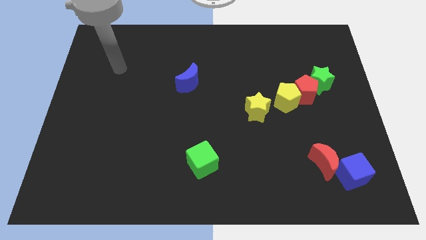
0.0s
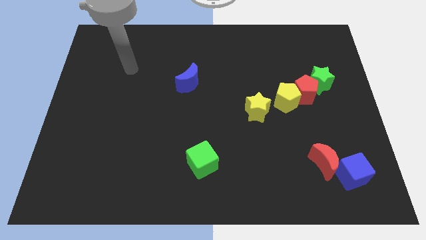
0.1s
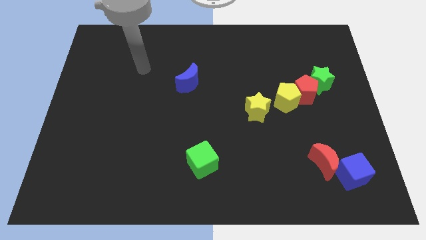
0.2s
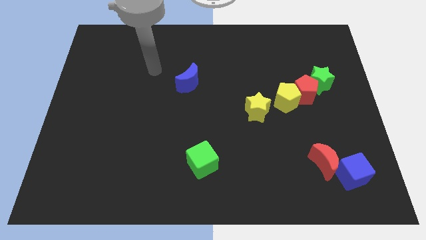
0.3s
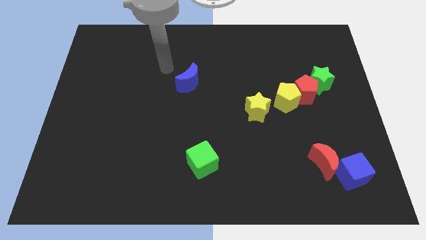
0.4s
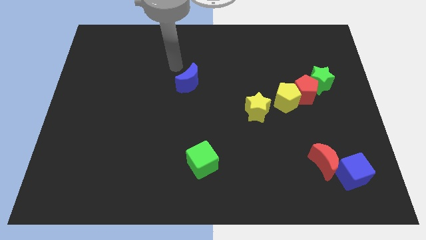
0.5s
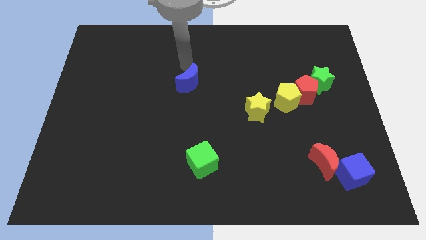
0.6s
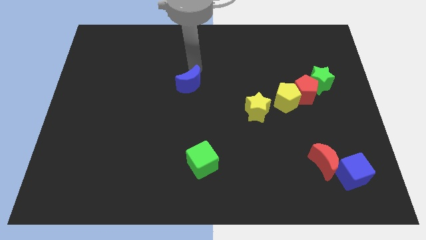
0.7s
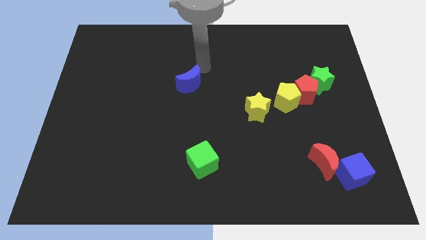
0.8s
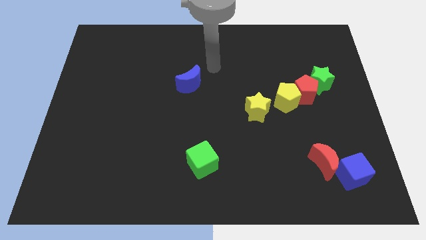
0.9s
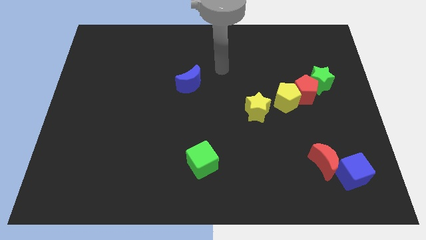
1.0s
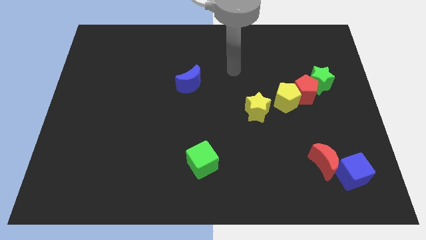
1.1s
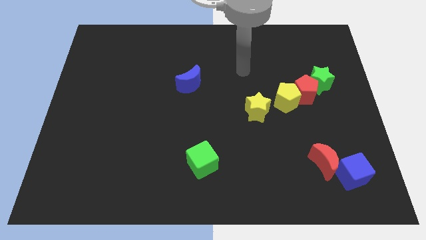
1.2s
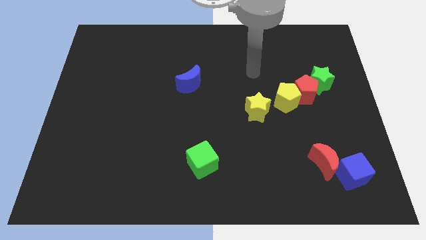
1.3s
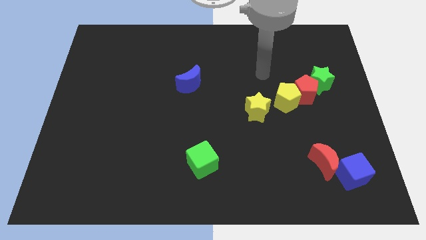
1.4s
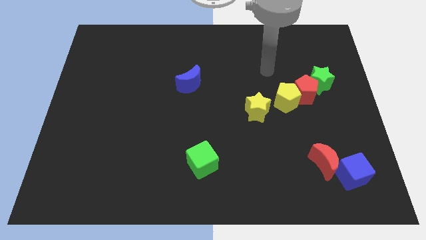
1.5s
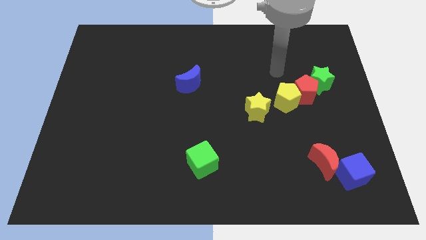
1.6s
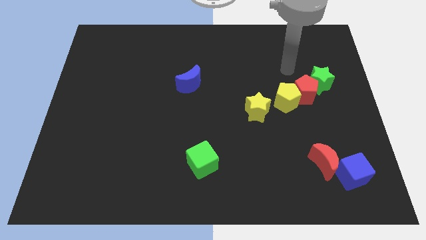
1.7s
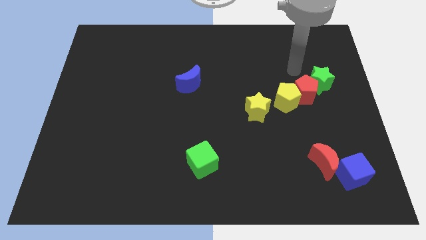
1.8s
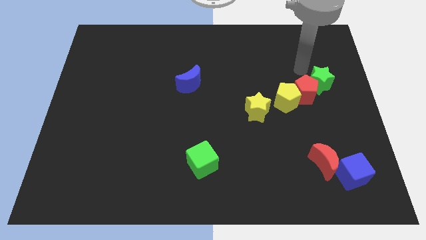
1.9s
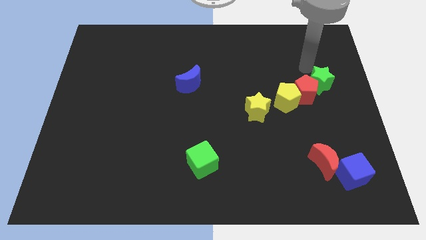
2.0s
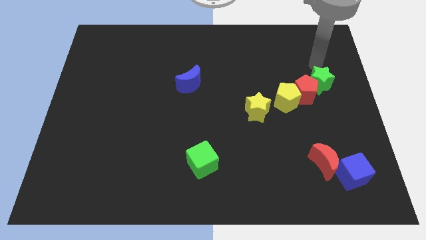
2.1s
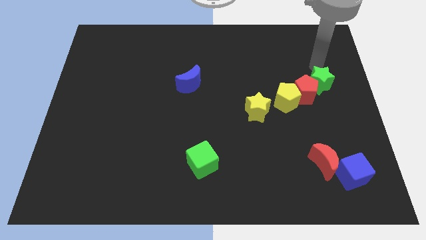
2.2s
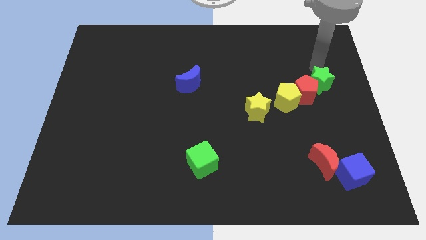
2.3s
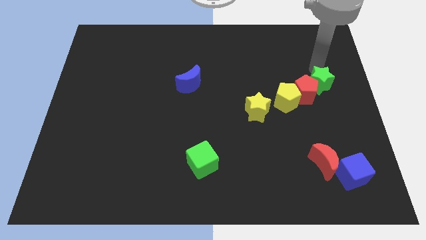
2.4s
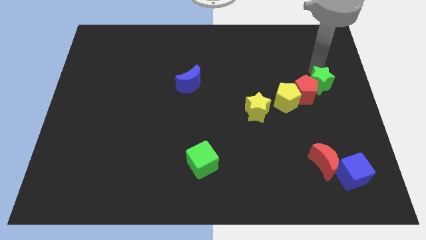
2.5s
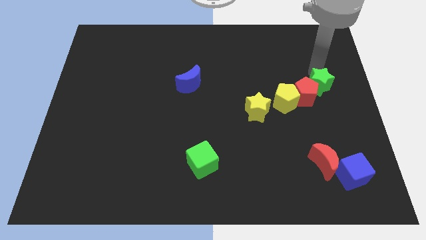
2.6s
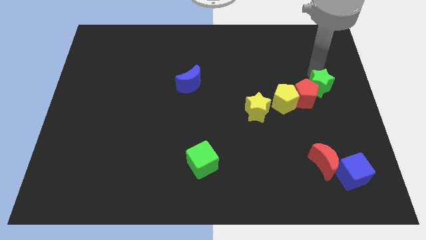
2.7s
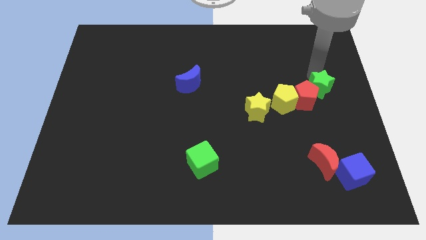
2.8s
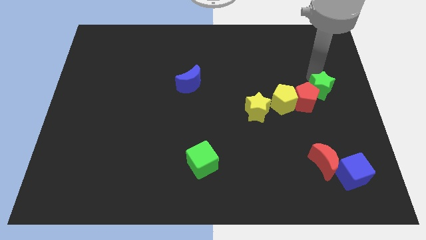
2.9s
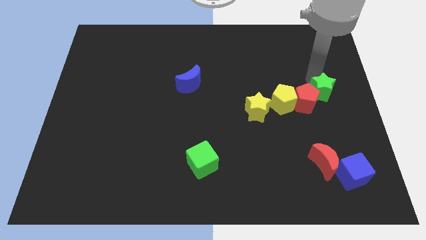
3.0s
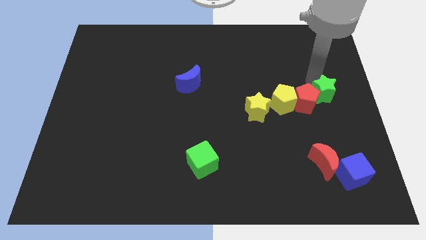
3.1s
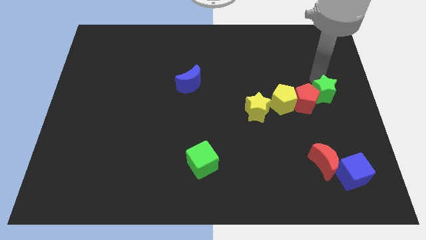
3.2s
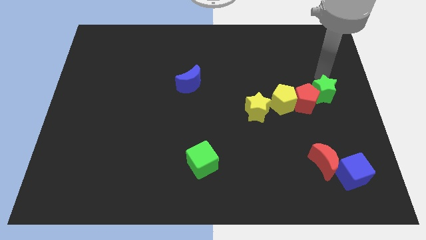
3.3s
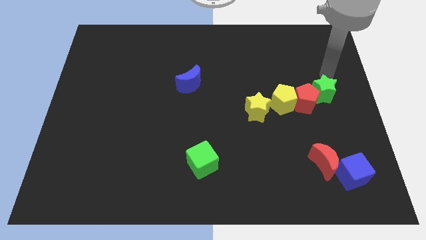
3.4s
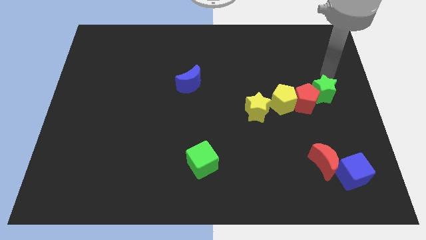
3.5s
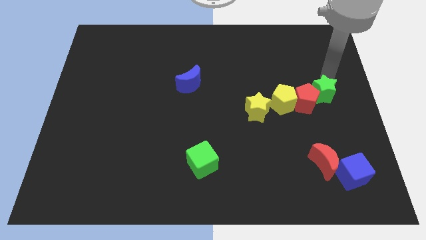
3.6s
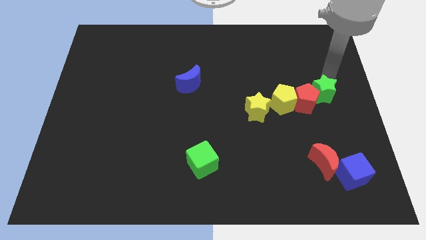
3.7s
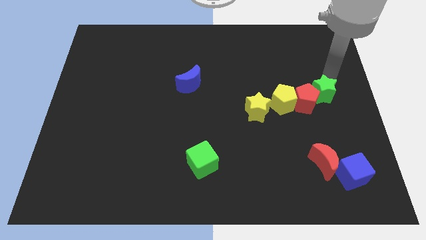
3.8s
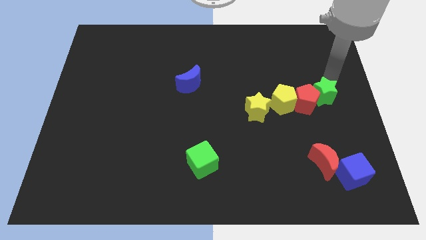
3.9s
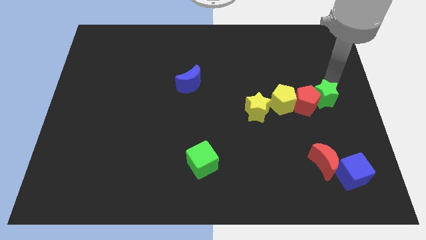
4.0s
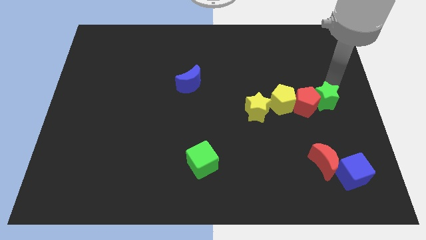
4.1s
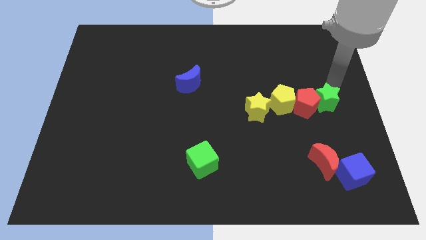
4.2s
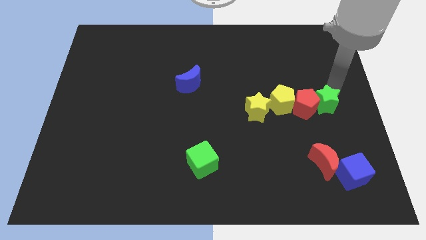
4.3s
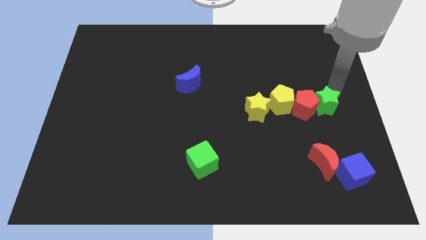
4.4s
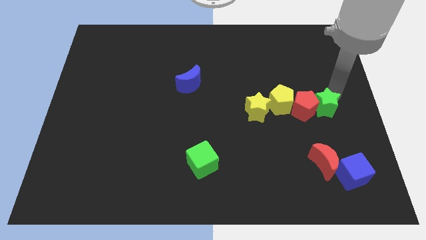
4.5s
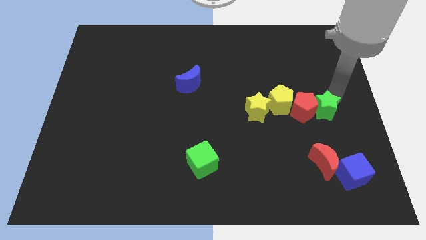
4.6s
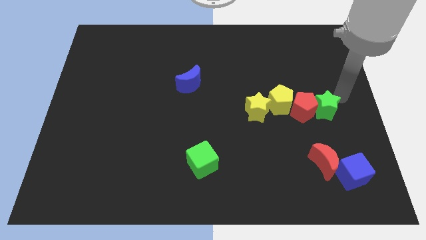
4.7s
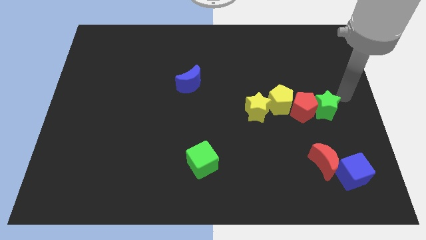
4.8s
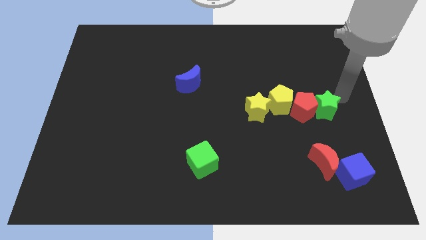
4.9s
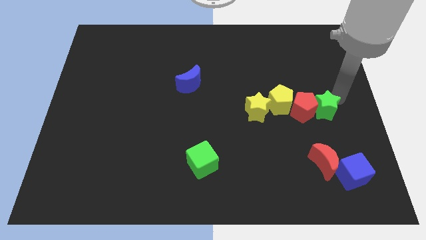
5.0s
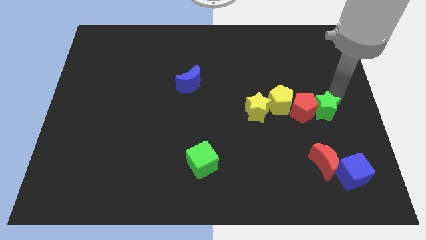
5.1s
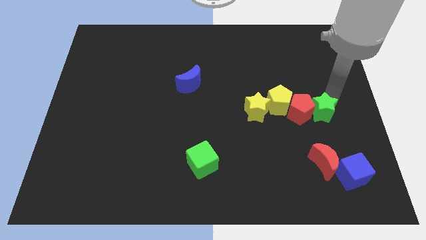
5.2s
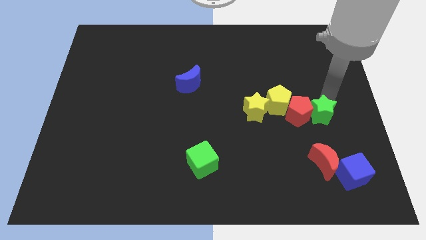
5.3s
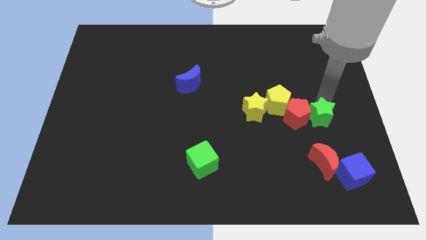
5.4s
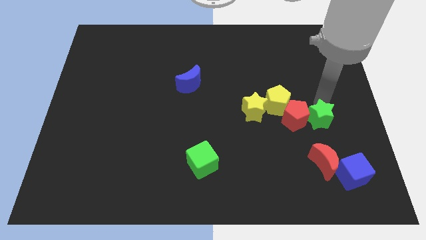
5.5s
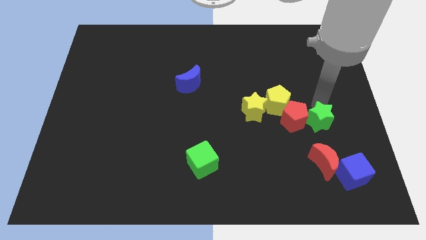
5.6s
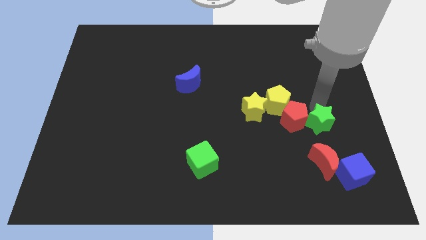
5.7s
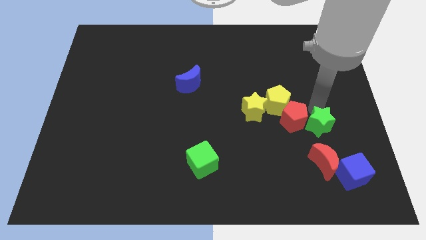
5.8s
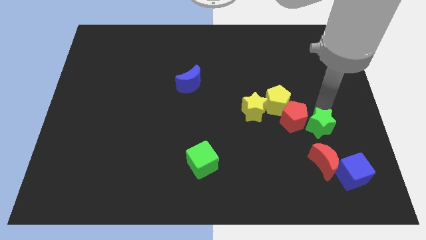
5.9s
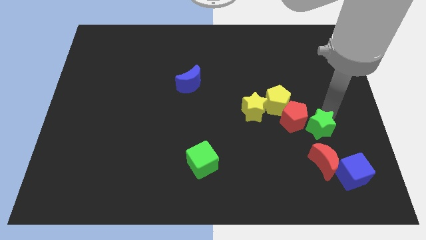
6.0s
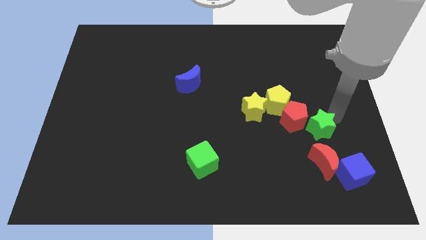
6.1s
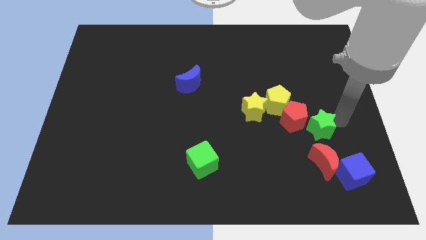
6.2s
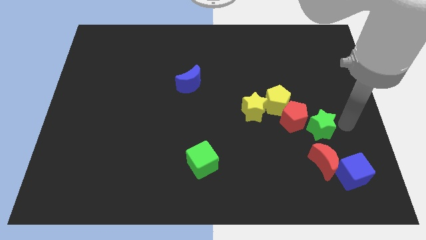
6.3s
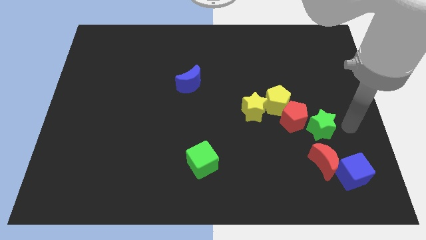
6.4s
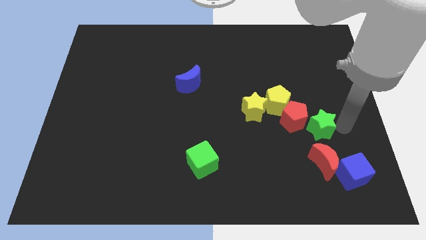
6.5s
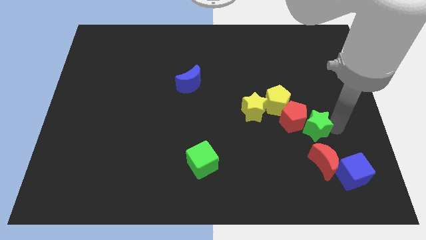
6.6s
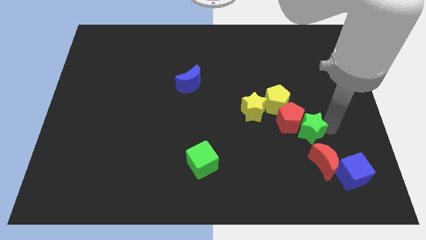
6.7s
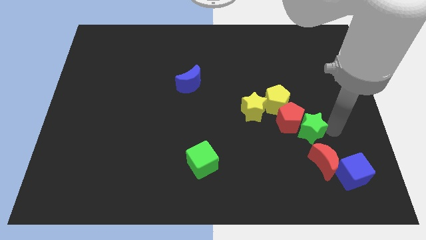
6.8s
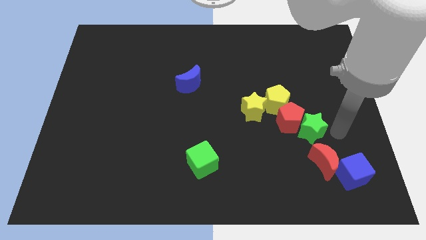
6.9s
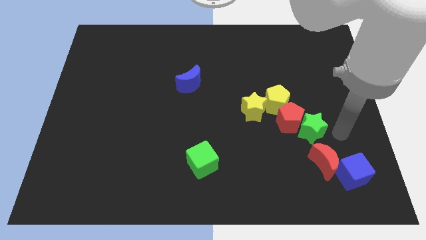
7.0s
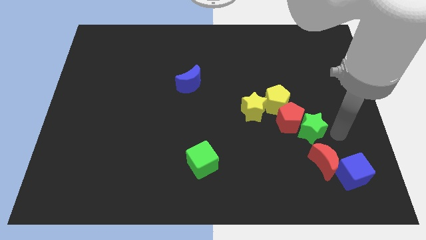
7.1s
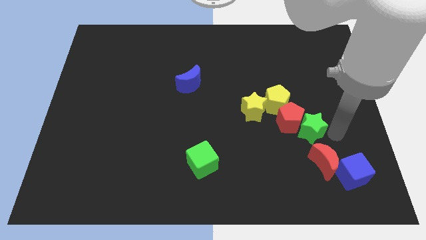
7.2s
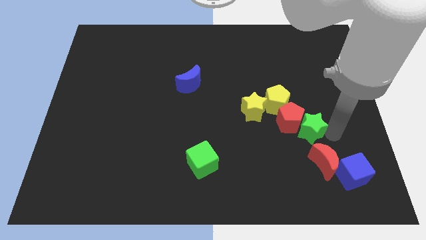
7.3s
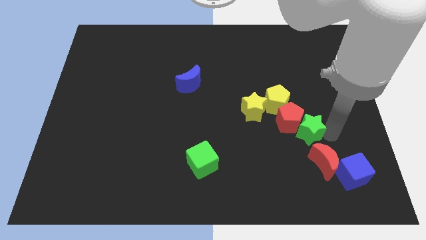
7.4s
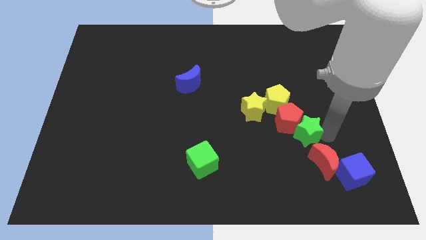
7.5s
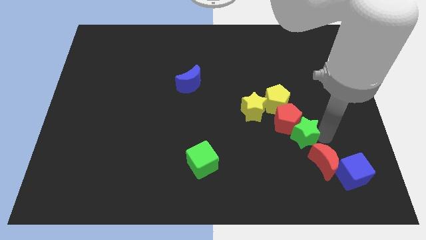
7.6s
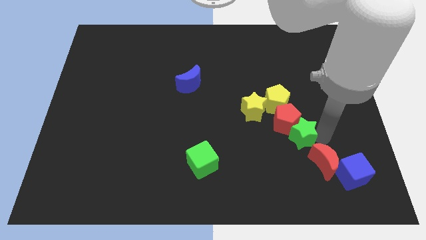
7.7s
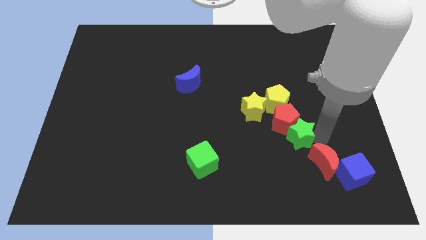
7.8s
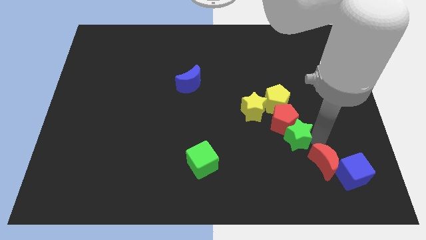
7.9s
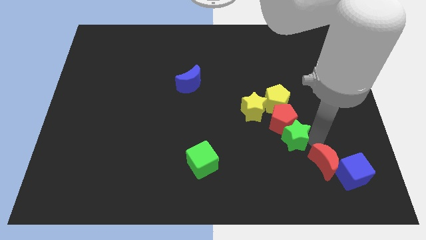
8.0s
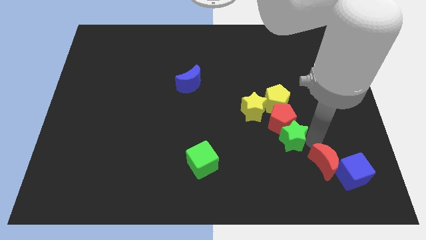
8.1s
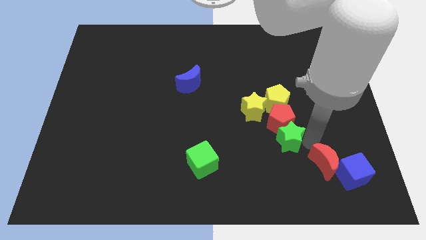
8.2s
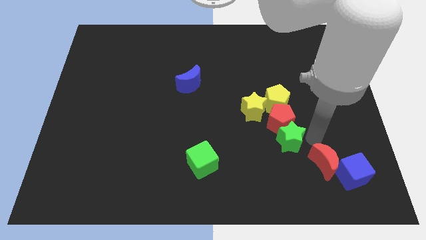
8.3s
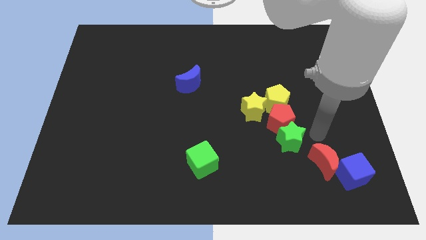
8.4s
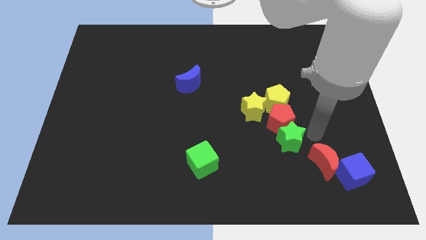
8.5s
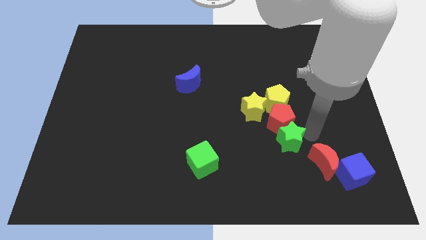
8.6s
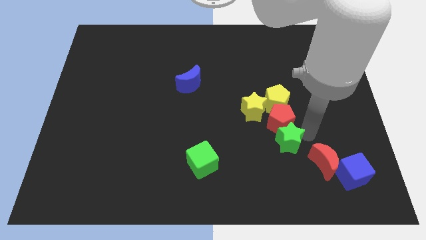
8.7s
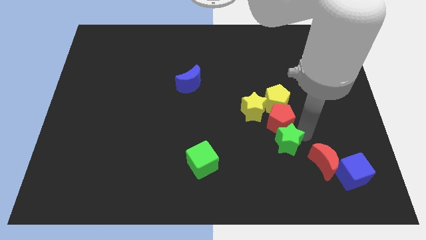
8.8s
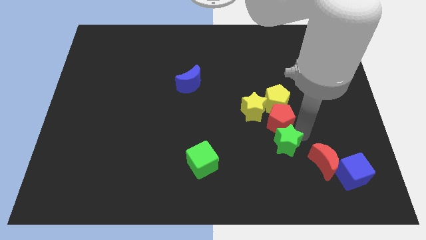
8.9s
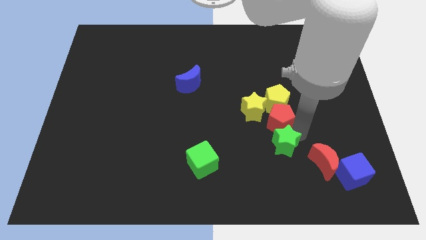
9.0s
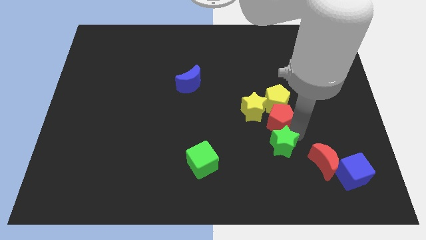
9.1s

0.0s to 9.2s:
move the green star downwards and left
